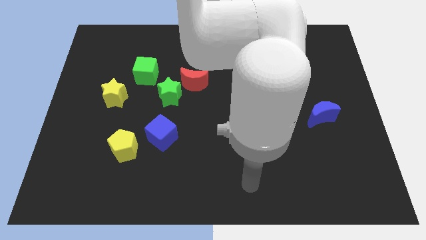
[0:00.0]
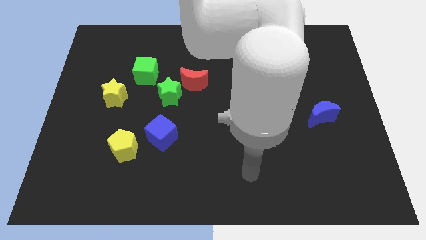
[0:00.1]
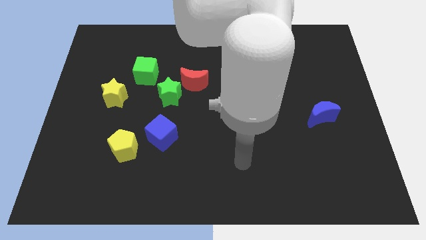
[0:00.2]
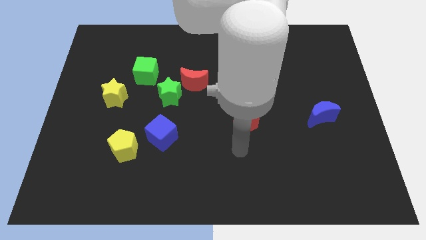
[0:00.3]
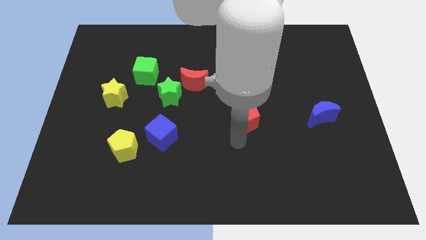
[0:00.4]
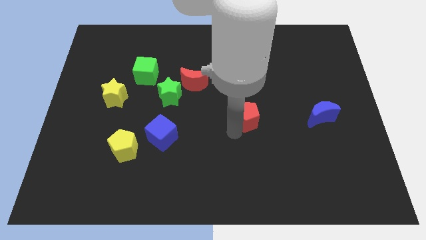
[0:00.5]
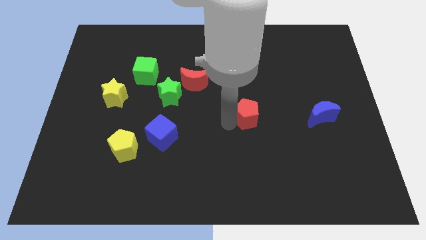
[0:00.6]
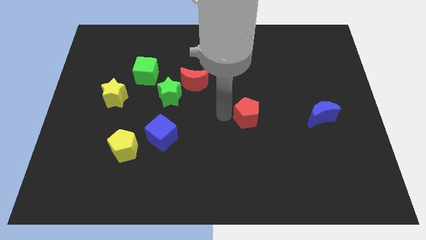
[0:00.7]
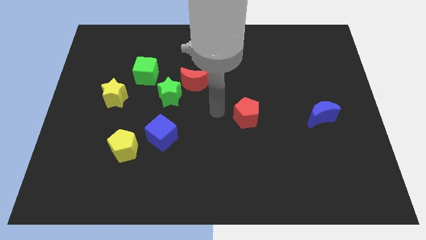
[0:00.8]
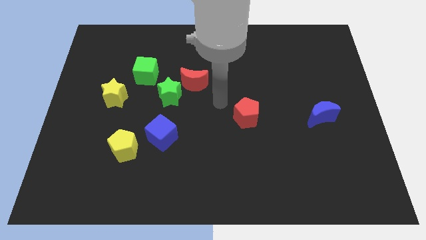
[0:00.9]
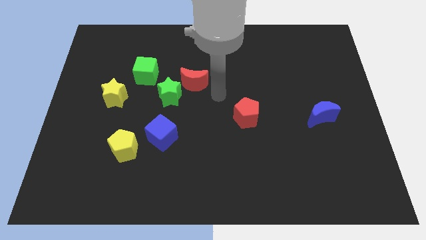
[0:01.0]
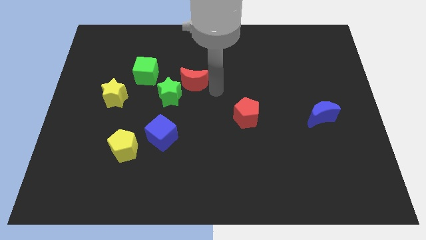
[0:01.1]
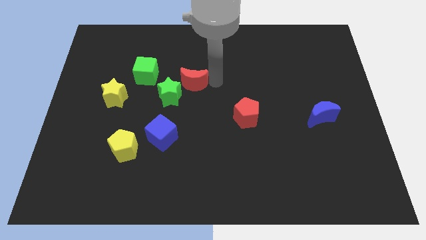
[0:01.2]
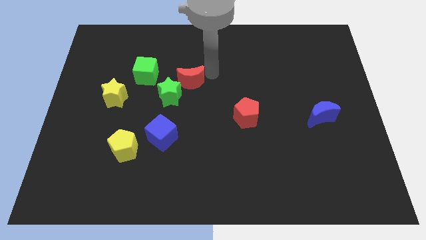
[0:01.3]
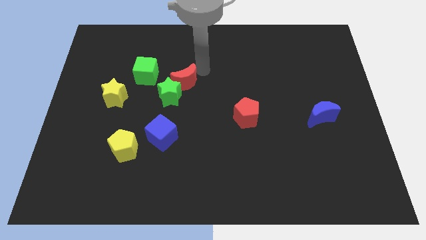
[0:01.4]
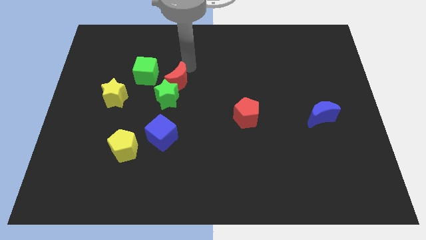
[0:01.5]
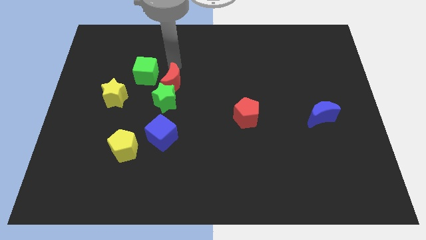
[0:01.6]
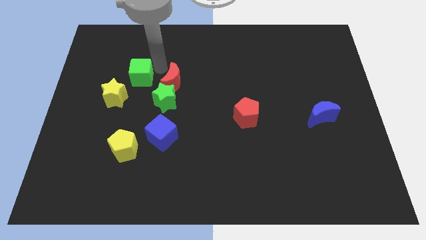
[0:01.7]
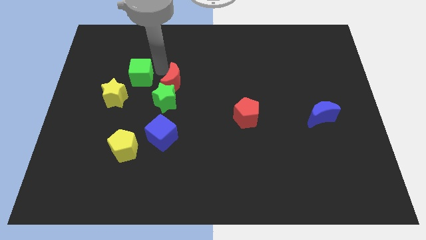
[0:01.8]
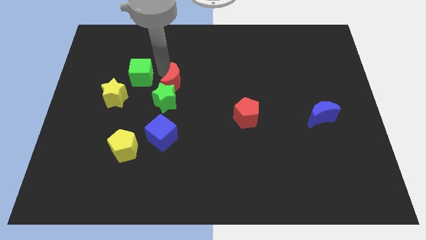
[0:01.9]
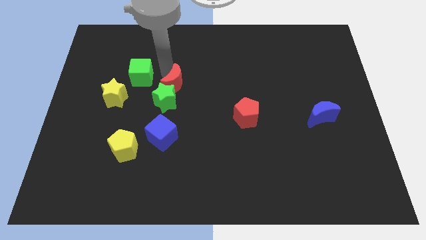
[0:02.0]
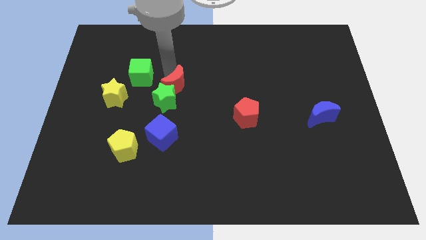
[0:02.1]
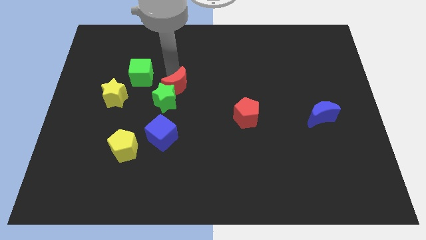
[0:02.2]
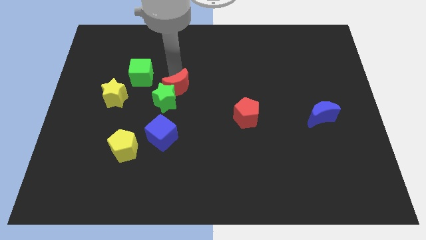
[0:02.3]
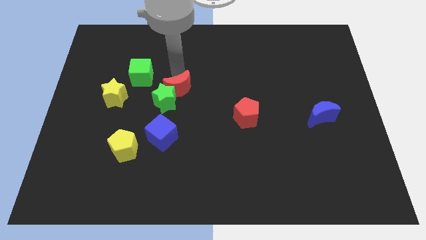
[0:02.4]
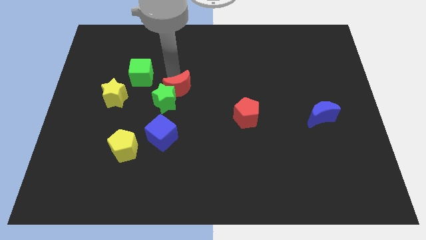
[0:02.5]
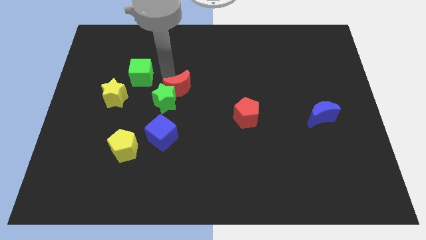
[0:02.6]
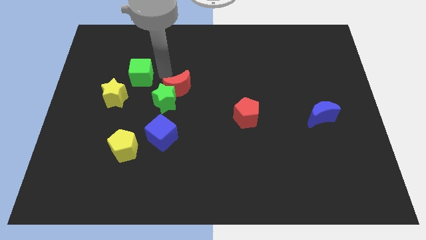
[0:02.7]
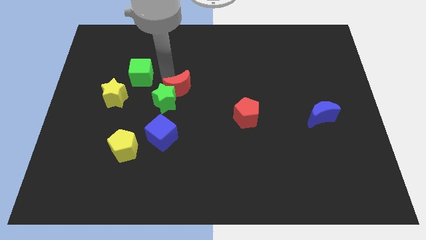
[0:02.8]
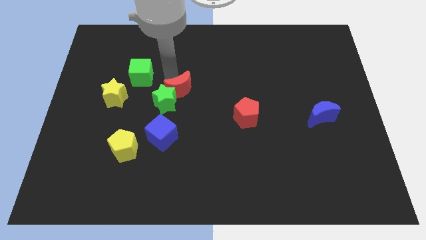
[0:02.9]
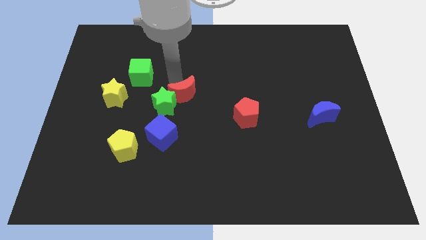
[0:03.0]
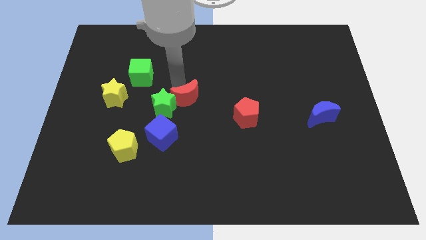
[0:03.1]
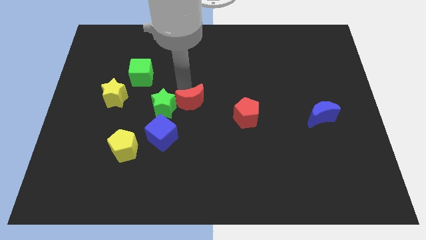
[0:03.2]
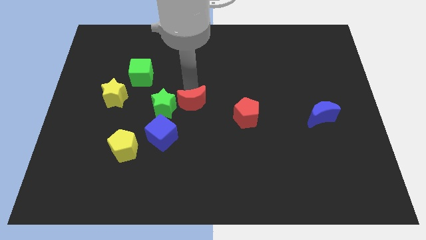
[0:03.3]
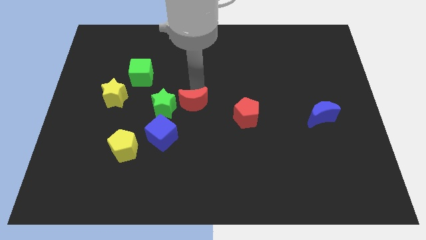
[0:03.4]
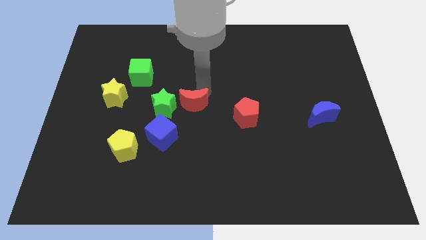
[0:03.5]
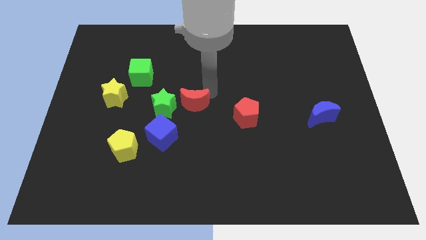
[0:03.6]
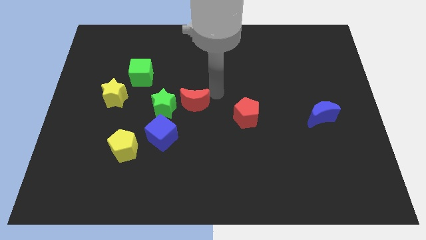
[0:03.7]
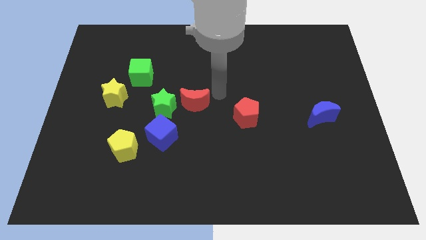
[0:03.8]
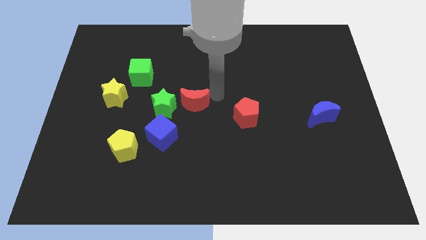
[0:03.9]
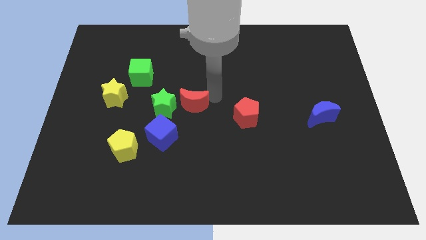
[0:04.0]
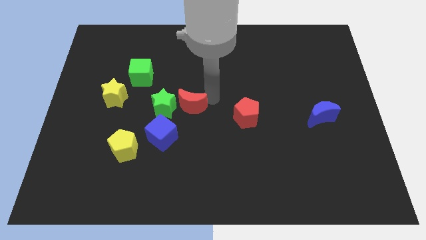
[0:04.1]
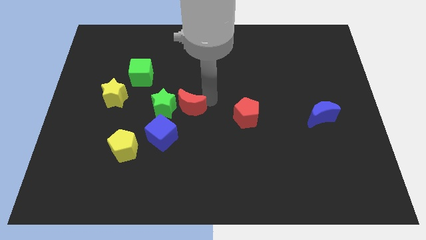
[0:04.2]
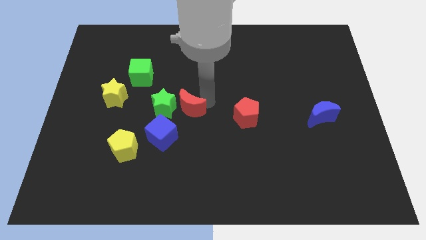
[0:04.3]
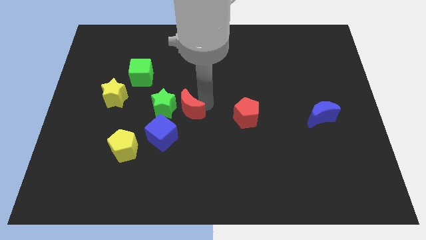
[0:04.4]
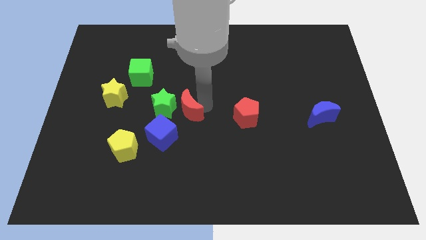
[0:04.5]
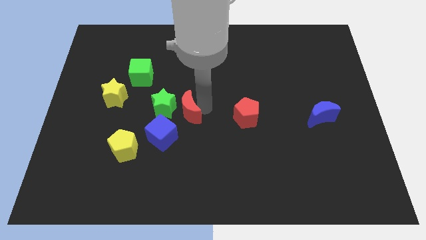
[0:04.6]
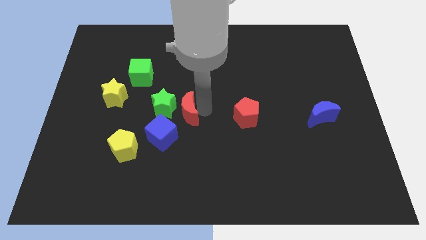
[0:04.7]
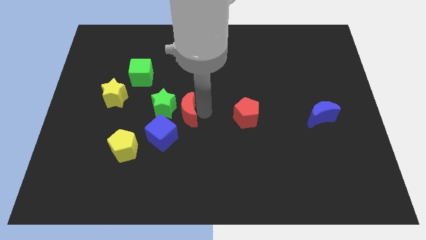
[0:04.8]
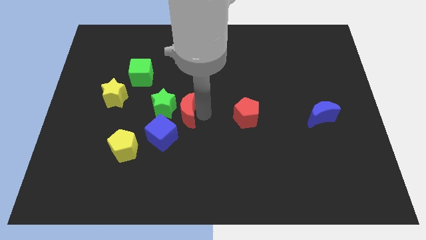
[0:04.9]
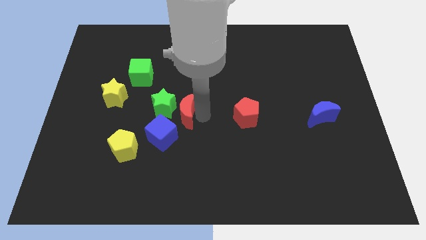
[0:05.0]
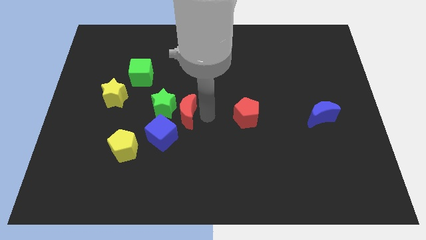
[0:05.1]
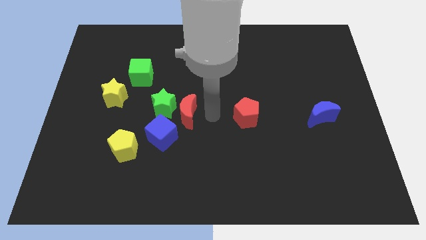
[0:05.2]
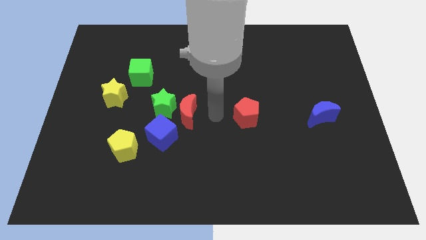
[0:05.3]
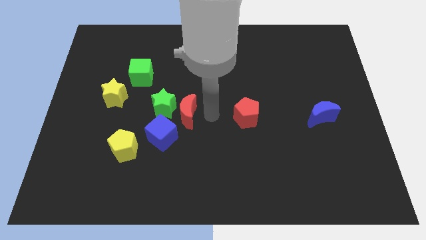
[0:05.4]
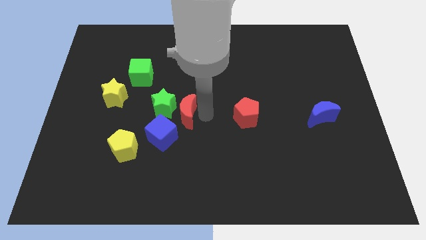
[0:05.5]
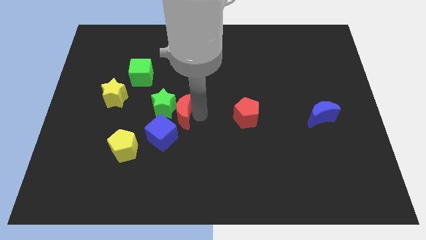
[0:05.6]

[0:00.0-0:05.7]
slightly move the red moon diagonally downwards and to the left

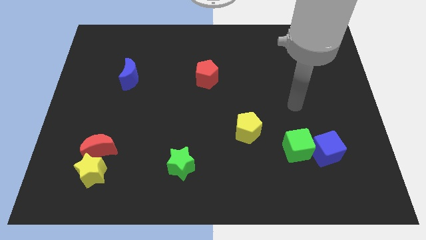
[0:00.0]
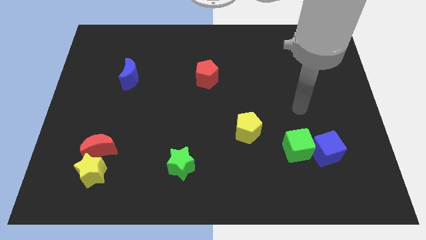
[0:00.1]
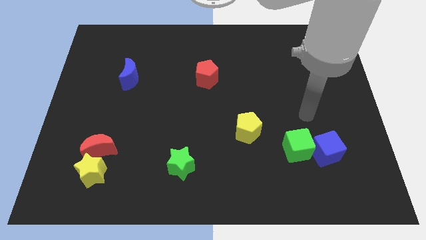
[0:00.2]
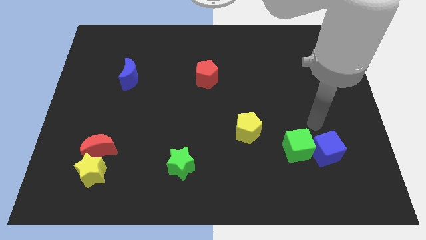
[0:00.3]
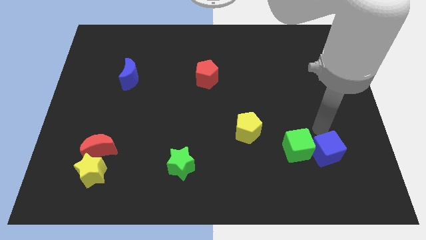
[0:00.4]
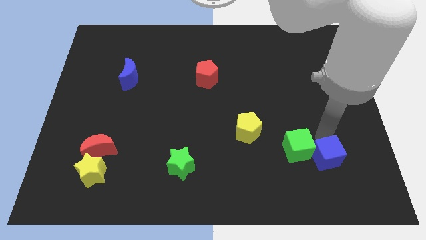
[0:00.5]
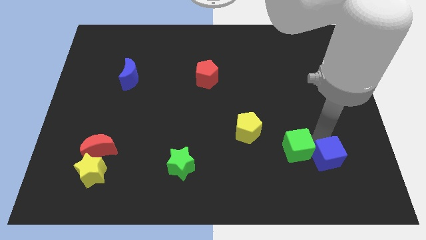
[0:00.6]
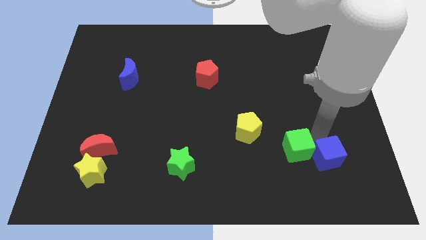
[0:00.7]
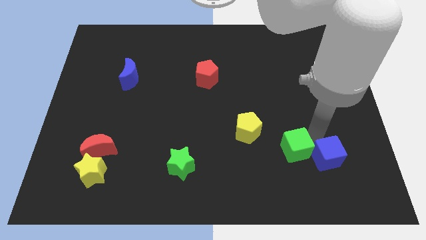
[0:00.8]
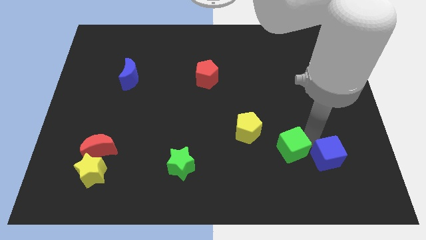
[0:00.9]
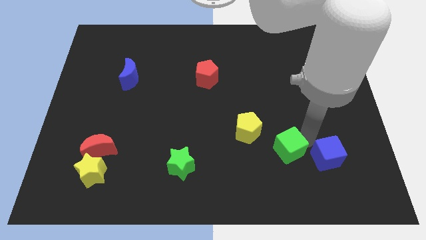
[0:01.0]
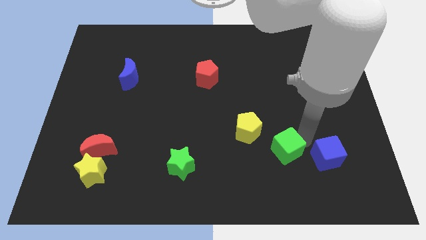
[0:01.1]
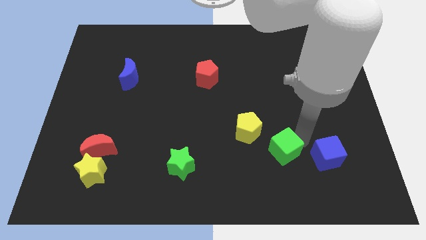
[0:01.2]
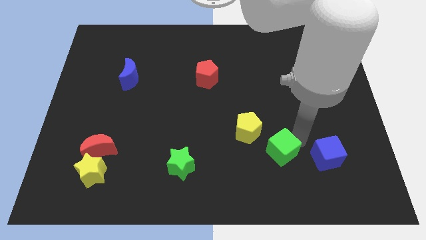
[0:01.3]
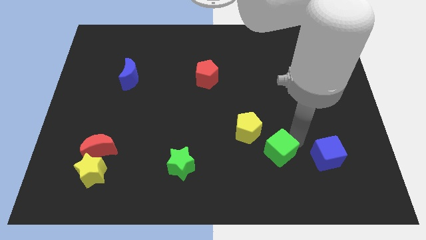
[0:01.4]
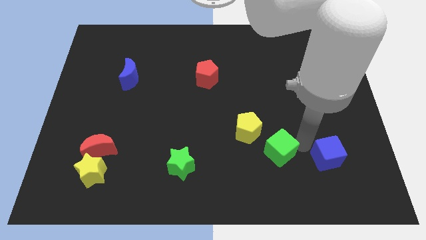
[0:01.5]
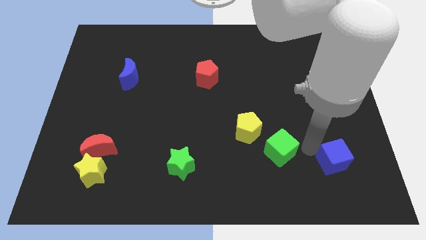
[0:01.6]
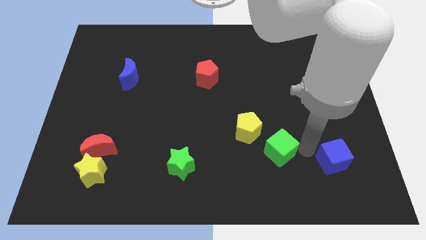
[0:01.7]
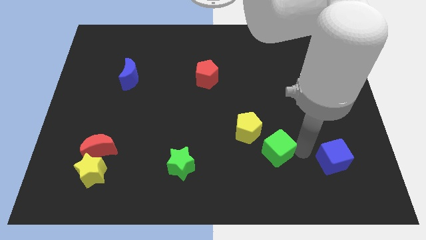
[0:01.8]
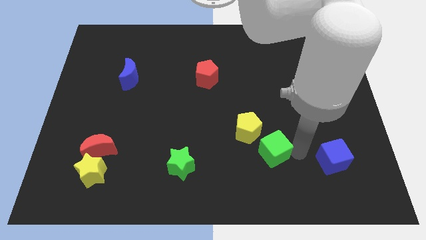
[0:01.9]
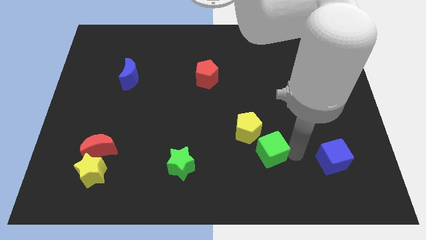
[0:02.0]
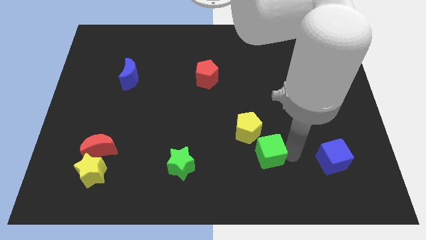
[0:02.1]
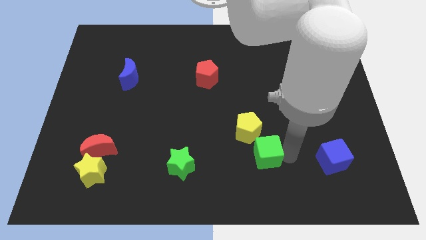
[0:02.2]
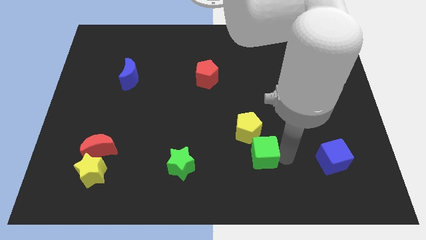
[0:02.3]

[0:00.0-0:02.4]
push the green cube left slightly
